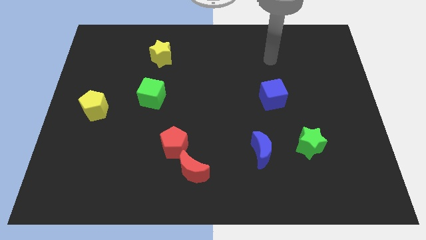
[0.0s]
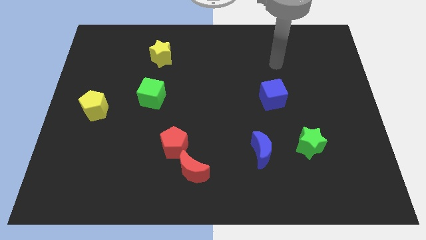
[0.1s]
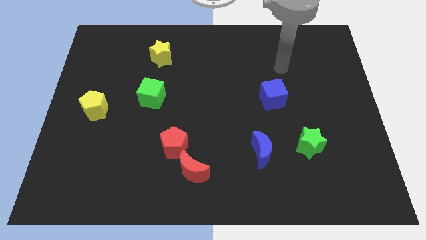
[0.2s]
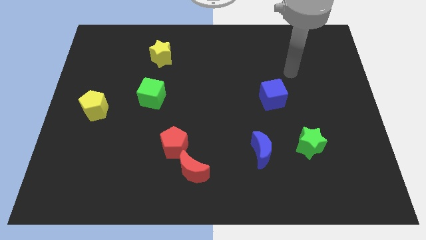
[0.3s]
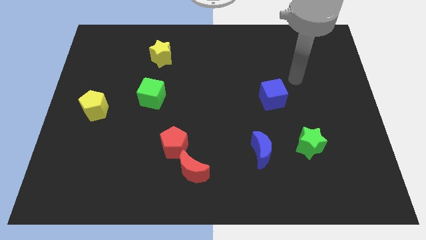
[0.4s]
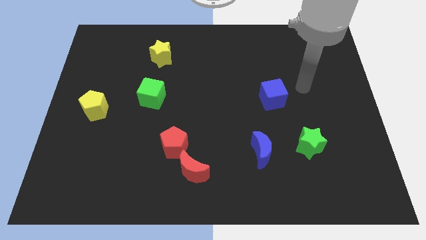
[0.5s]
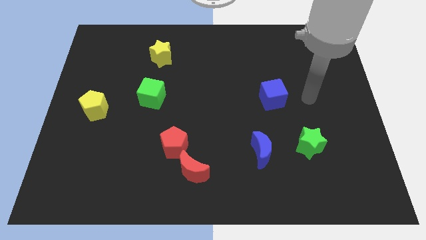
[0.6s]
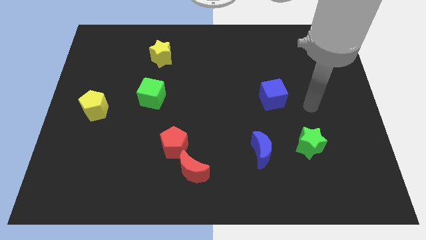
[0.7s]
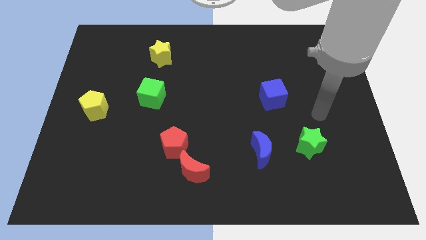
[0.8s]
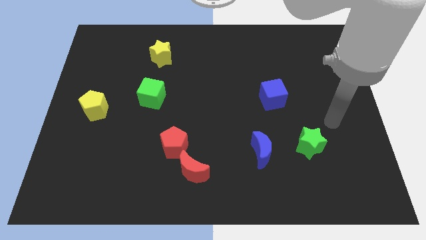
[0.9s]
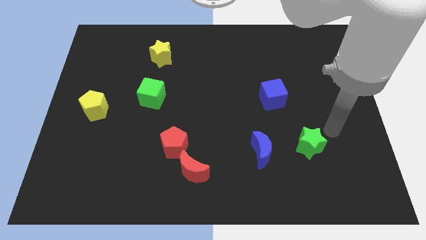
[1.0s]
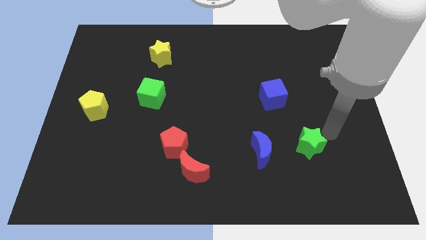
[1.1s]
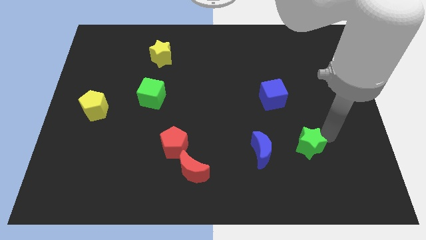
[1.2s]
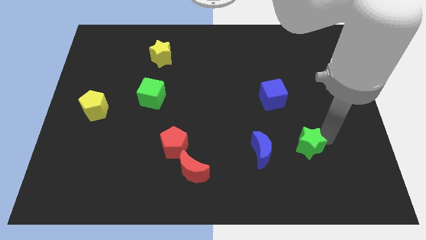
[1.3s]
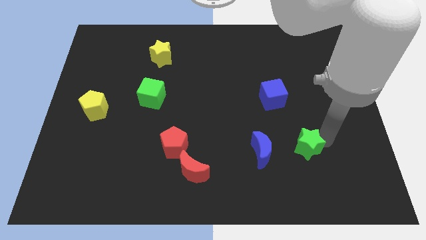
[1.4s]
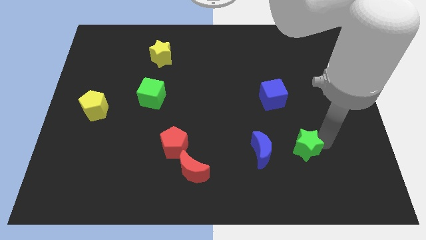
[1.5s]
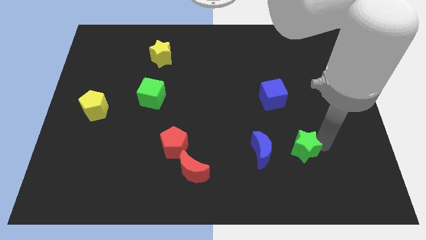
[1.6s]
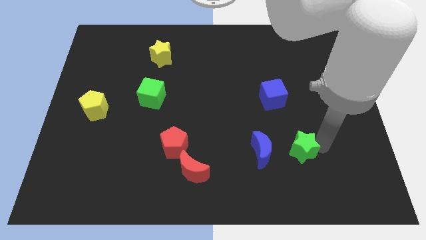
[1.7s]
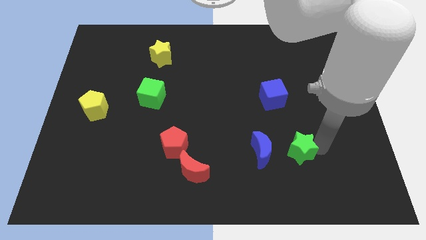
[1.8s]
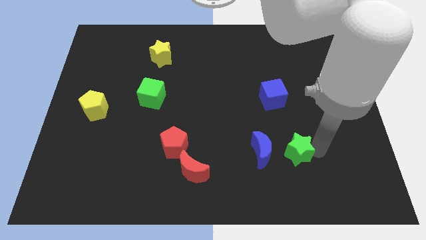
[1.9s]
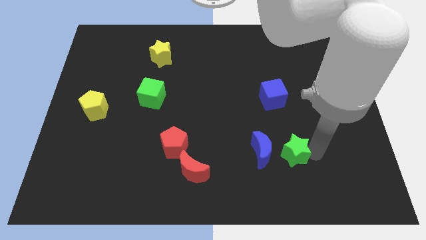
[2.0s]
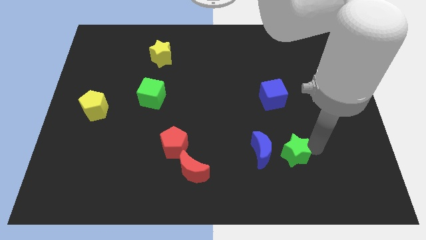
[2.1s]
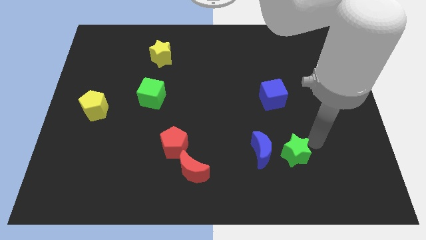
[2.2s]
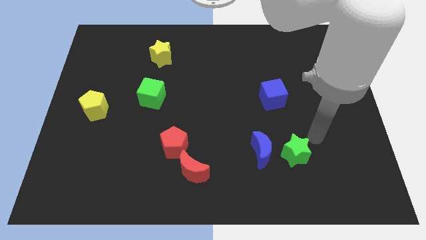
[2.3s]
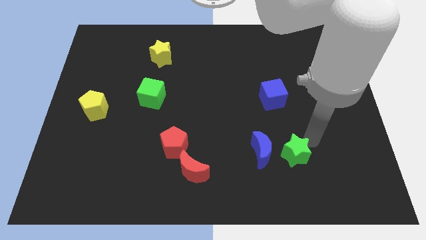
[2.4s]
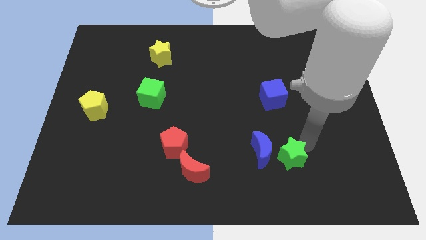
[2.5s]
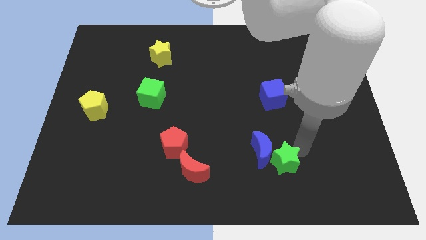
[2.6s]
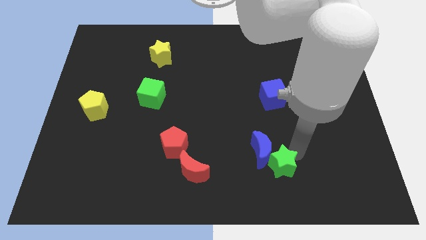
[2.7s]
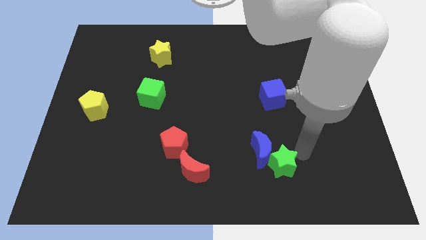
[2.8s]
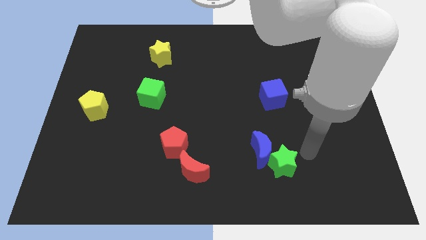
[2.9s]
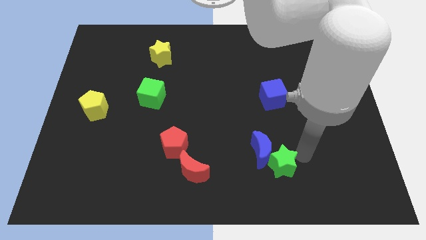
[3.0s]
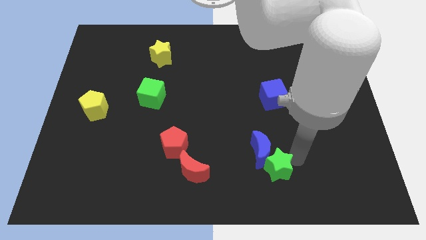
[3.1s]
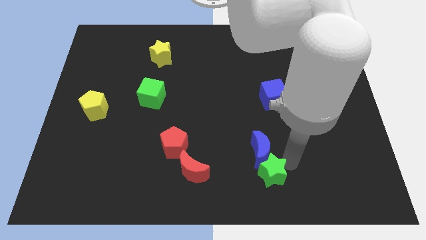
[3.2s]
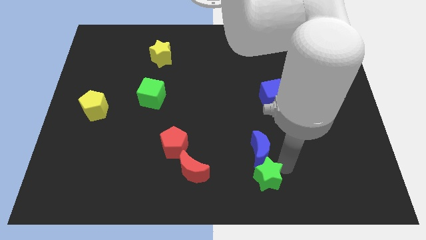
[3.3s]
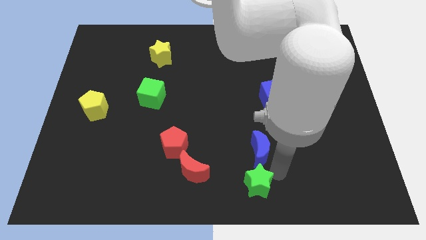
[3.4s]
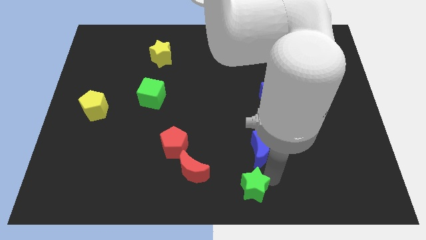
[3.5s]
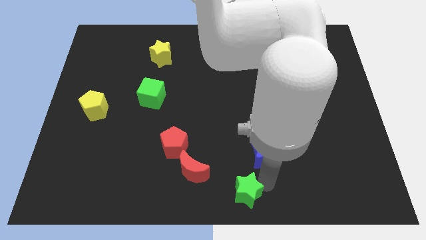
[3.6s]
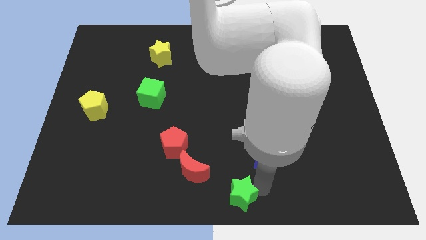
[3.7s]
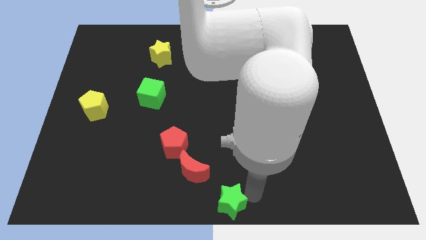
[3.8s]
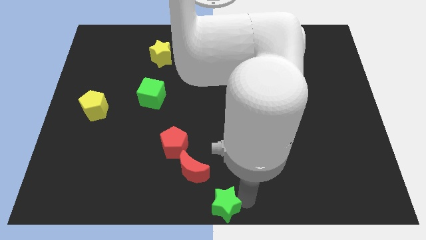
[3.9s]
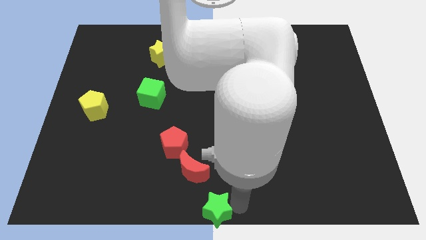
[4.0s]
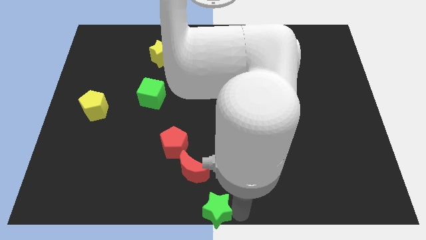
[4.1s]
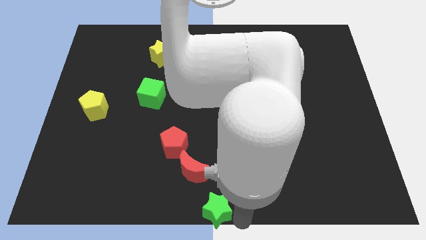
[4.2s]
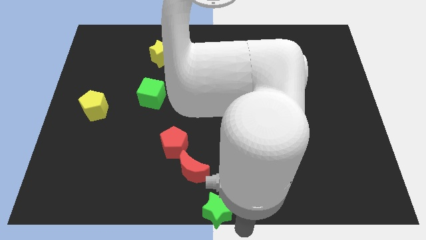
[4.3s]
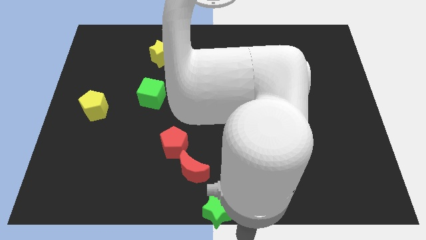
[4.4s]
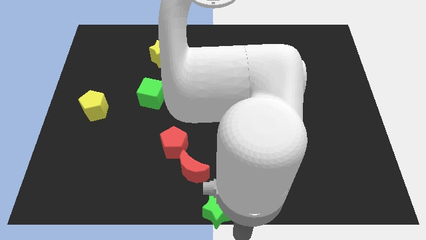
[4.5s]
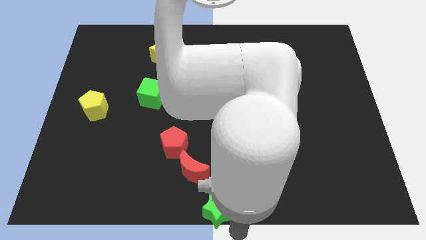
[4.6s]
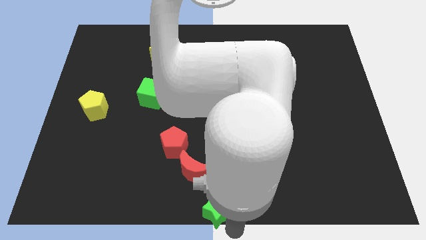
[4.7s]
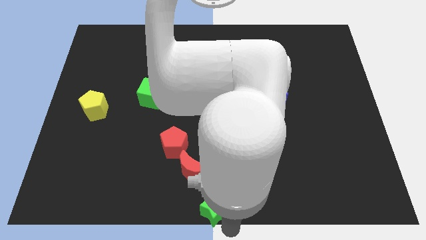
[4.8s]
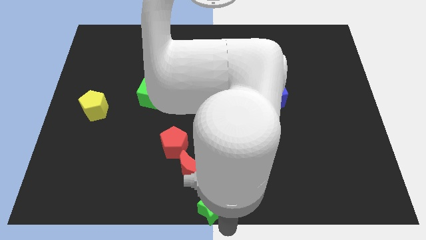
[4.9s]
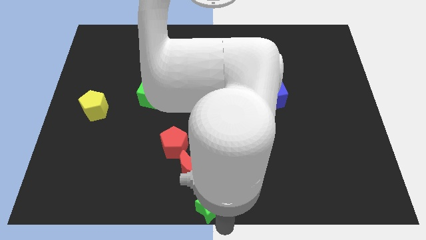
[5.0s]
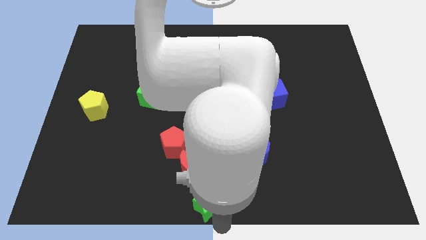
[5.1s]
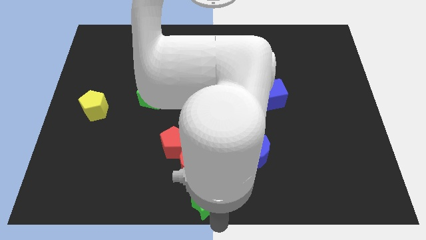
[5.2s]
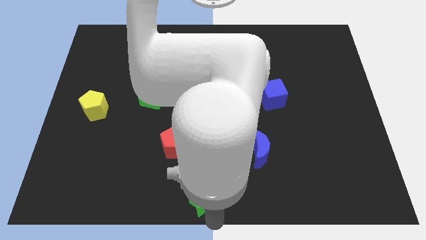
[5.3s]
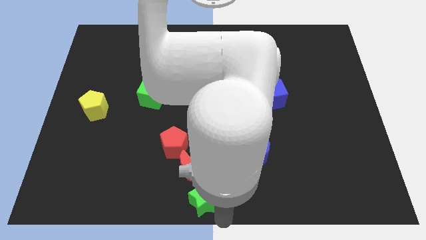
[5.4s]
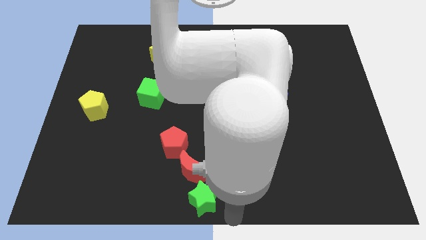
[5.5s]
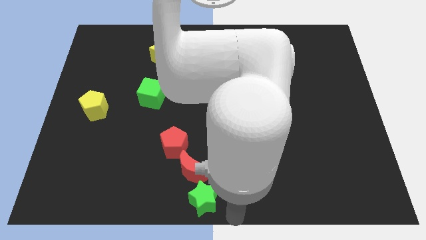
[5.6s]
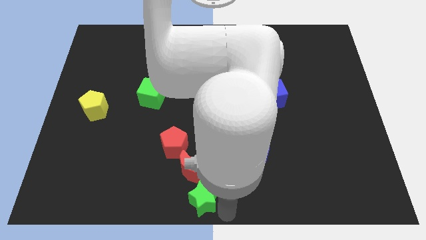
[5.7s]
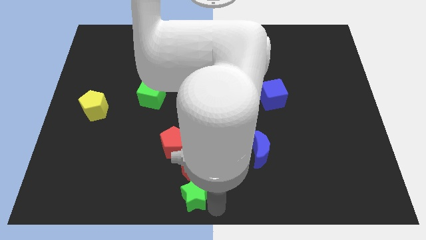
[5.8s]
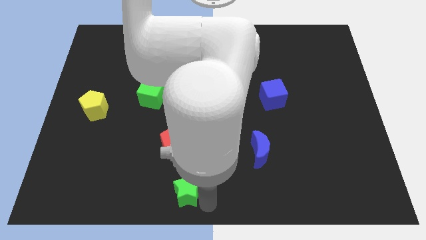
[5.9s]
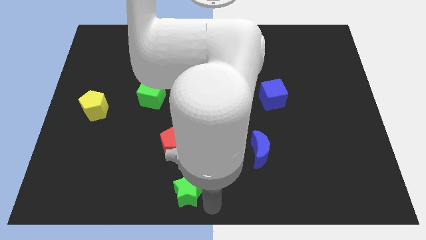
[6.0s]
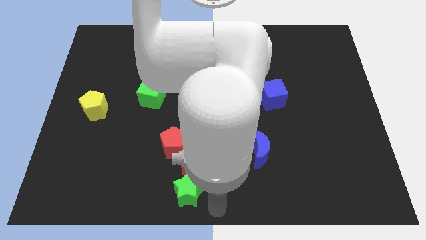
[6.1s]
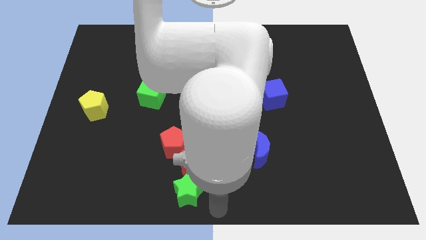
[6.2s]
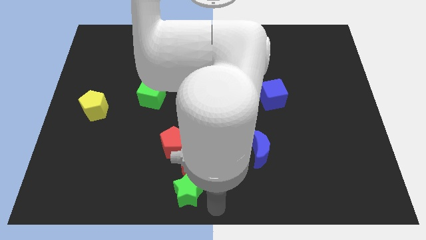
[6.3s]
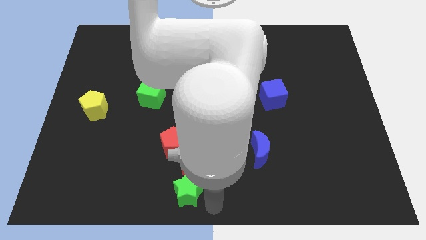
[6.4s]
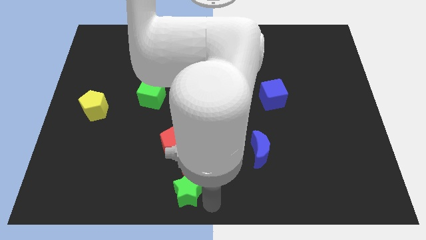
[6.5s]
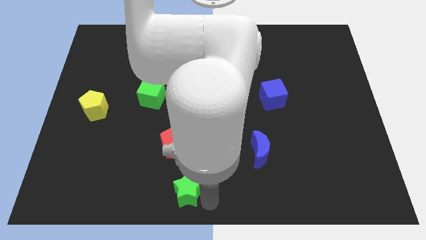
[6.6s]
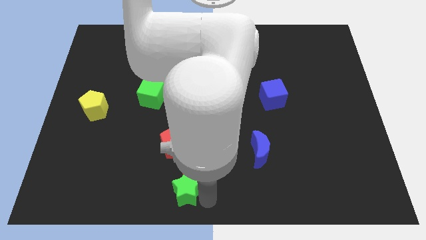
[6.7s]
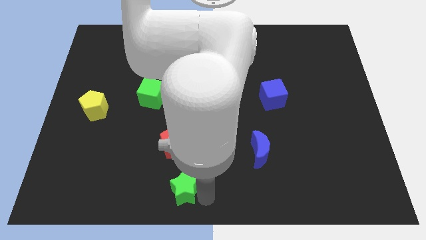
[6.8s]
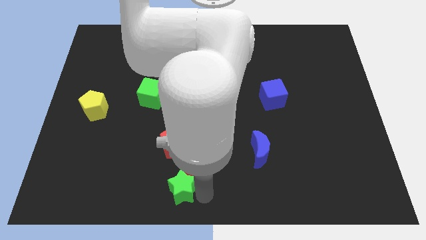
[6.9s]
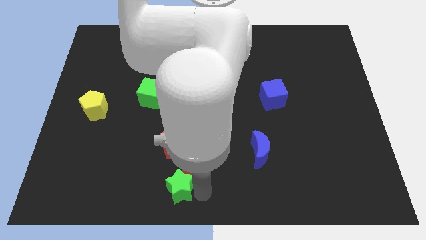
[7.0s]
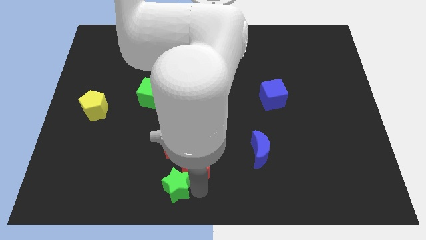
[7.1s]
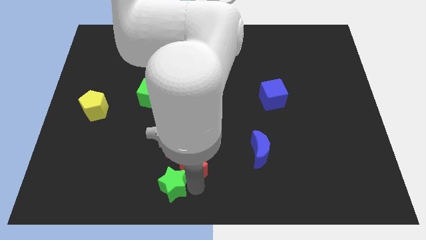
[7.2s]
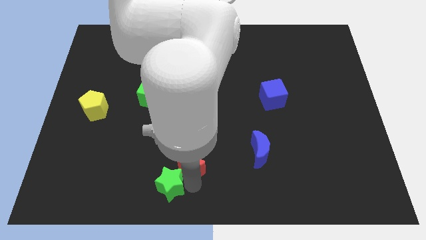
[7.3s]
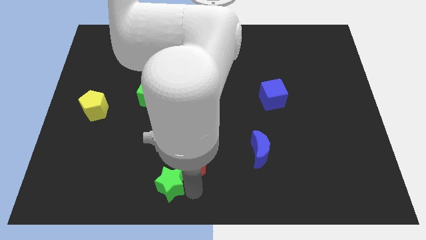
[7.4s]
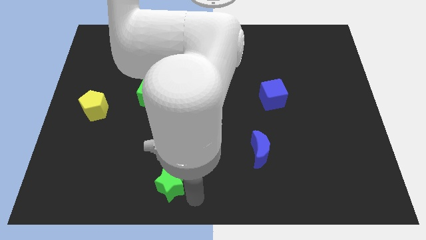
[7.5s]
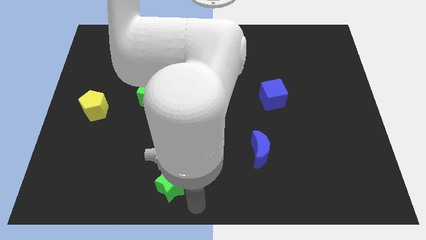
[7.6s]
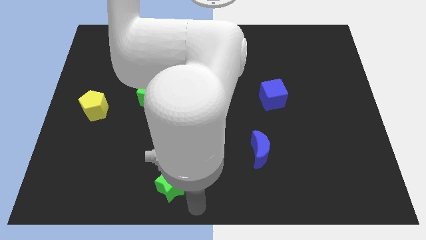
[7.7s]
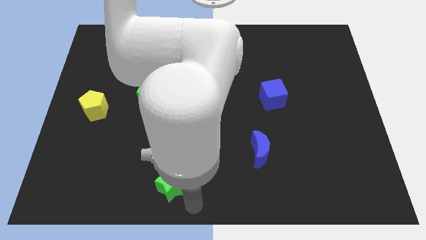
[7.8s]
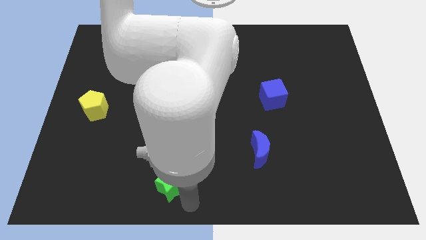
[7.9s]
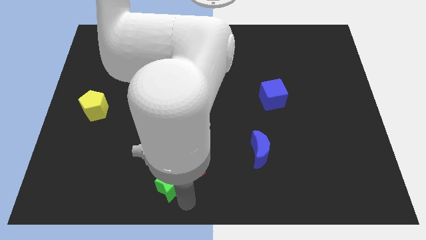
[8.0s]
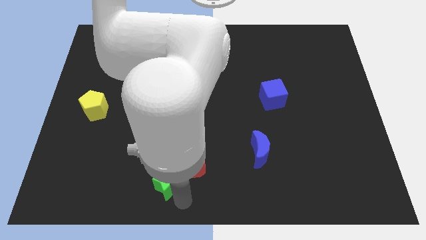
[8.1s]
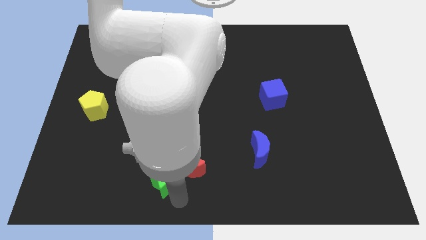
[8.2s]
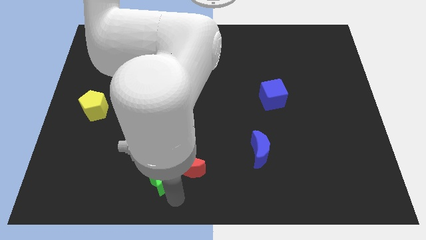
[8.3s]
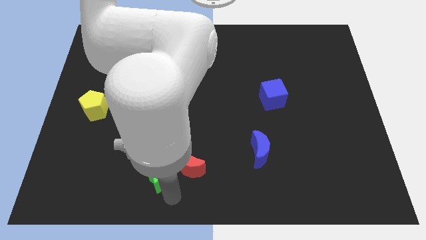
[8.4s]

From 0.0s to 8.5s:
slide the green star to the bottom left side of the red pentagon
